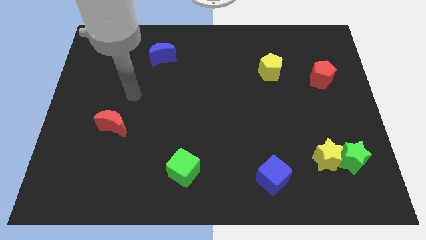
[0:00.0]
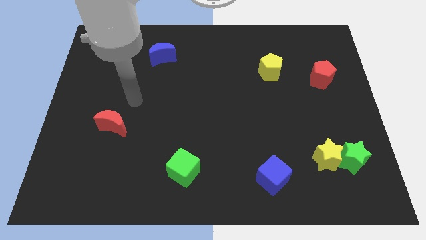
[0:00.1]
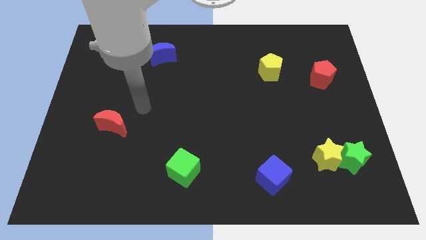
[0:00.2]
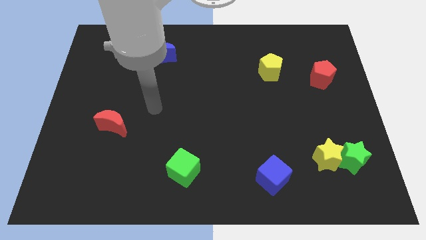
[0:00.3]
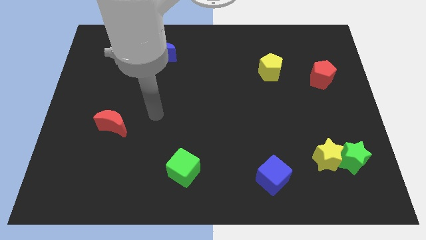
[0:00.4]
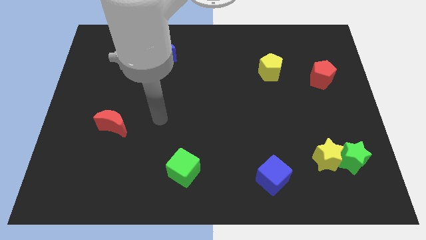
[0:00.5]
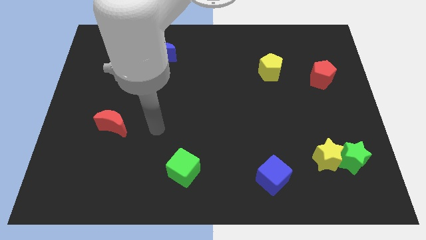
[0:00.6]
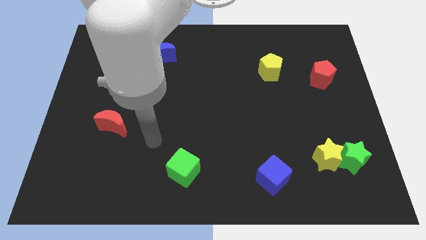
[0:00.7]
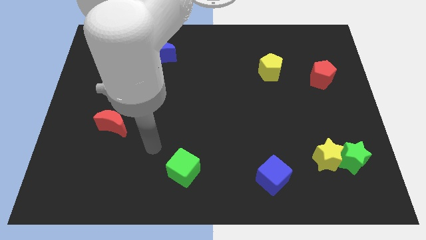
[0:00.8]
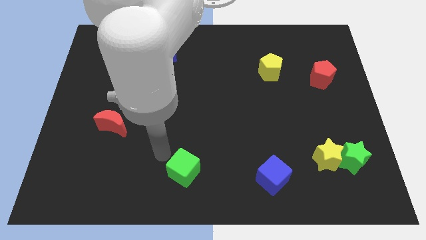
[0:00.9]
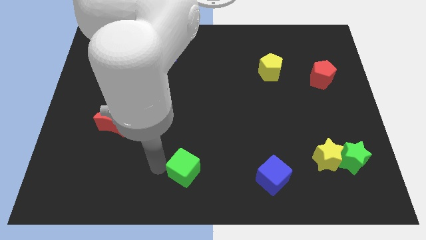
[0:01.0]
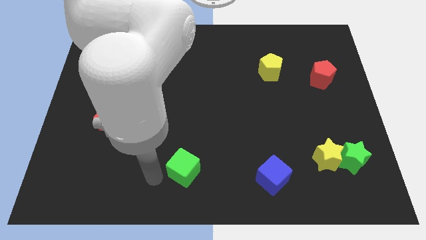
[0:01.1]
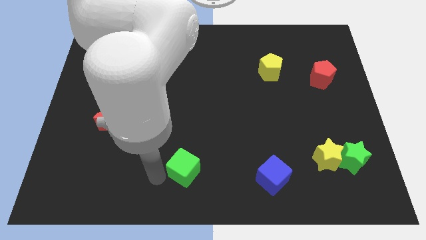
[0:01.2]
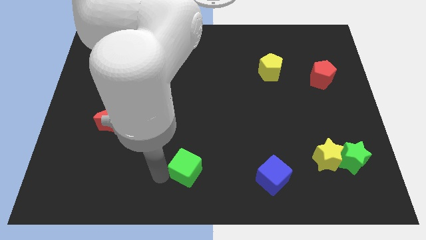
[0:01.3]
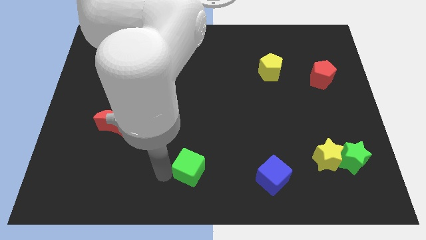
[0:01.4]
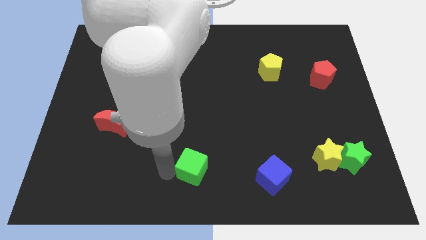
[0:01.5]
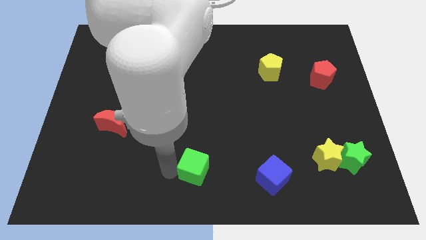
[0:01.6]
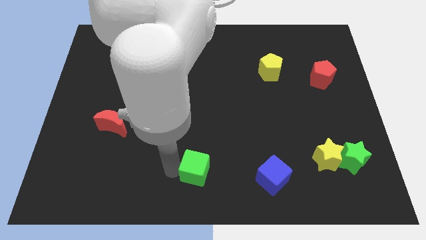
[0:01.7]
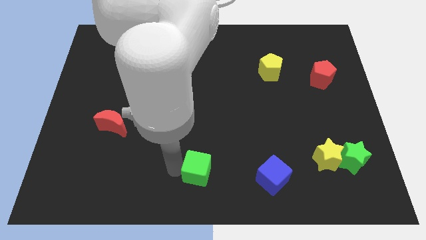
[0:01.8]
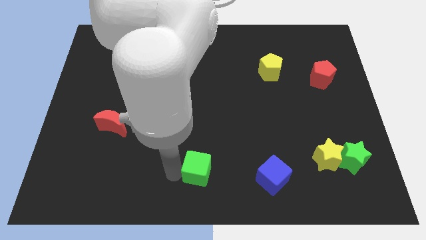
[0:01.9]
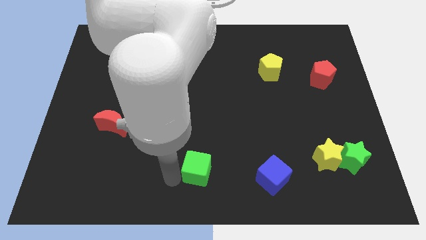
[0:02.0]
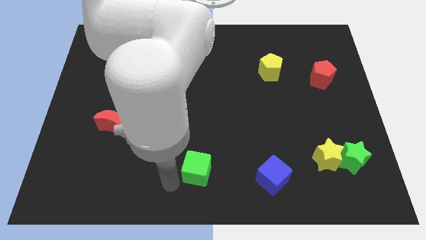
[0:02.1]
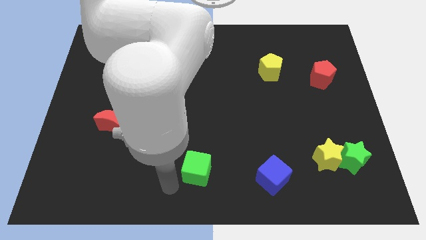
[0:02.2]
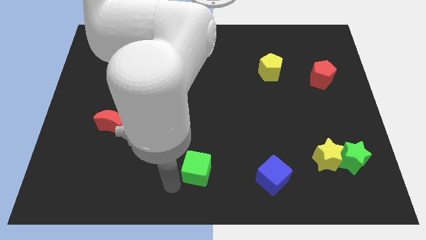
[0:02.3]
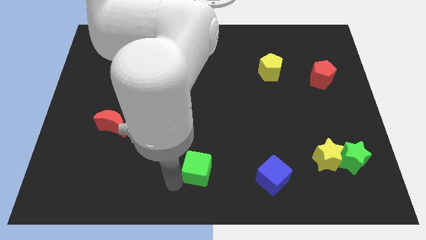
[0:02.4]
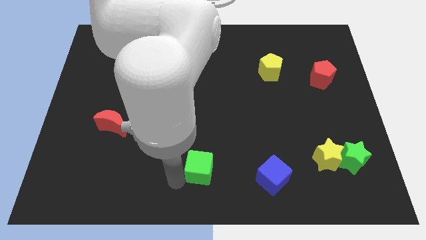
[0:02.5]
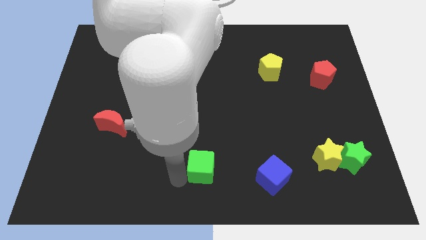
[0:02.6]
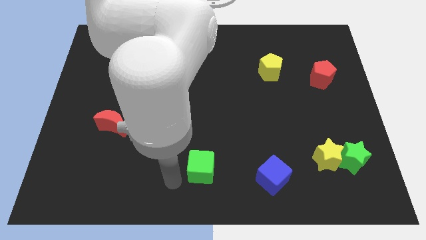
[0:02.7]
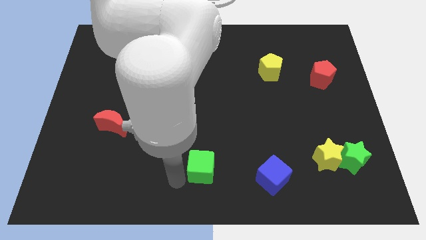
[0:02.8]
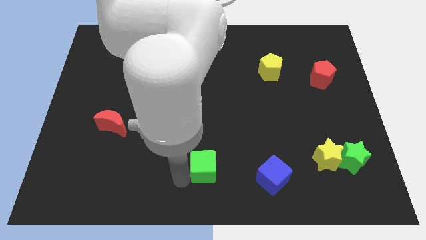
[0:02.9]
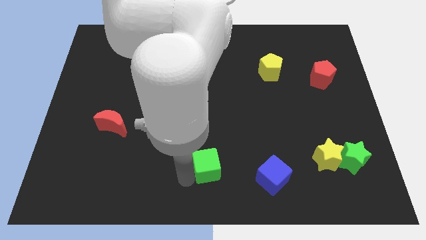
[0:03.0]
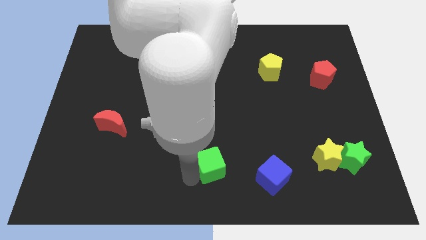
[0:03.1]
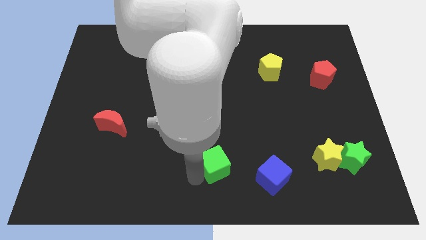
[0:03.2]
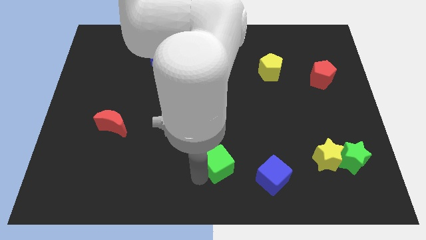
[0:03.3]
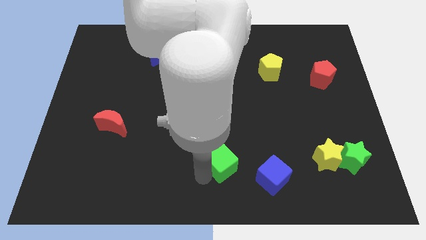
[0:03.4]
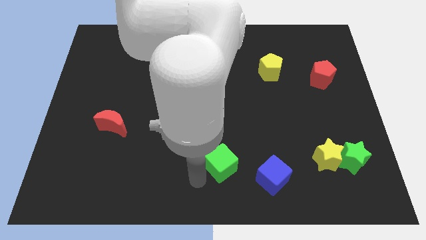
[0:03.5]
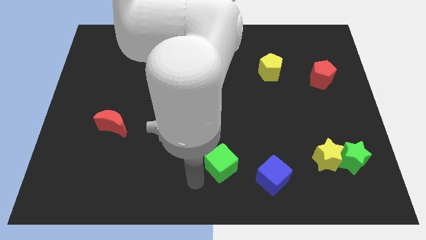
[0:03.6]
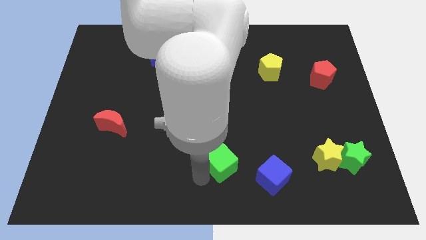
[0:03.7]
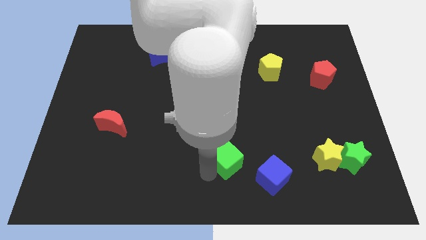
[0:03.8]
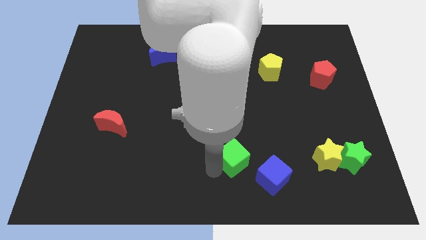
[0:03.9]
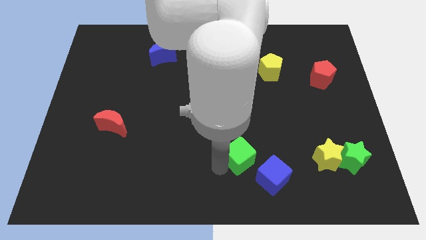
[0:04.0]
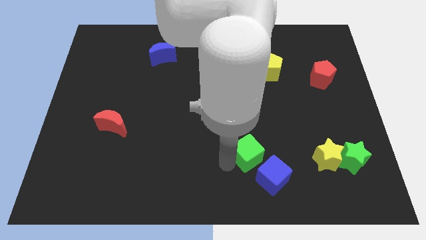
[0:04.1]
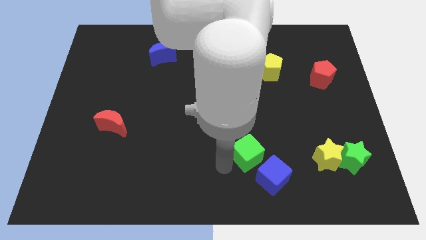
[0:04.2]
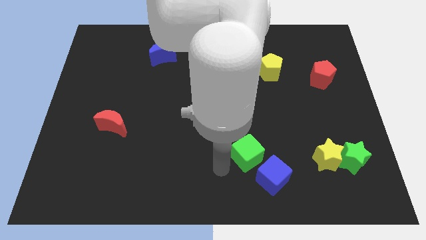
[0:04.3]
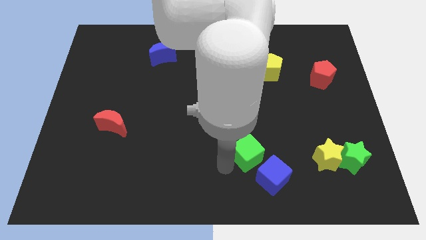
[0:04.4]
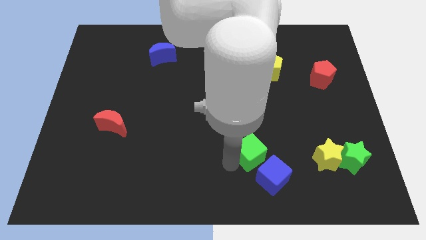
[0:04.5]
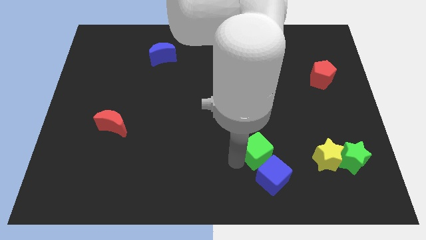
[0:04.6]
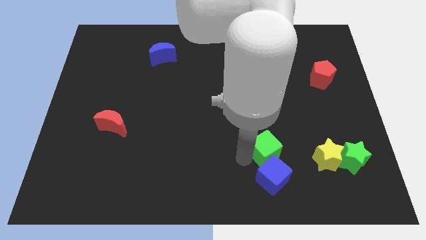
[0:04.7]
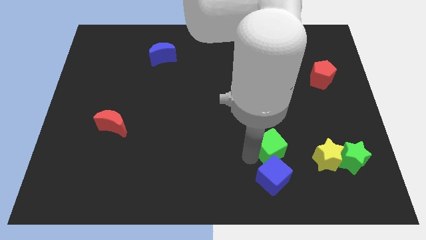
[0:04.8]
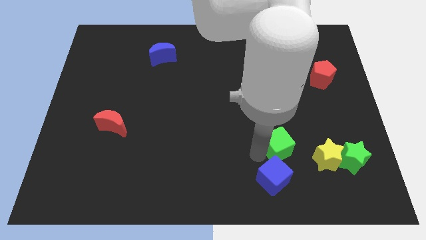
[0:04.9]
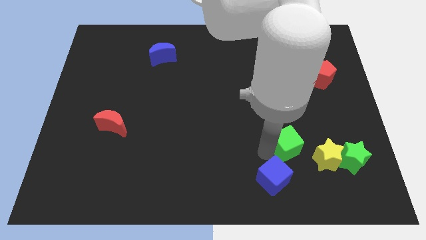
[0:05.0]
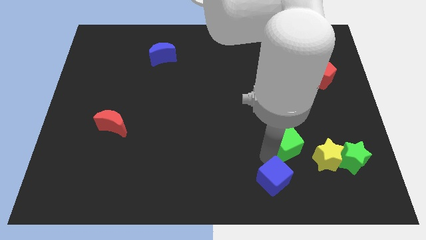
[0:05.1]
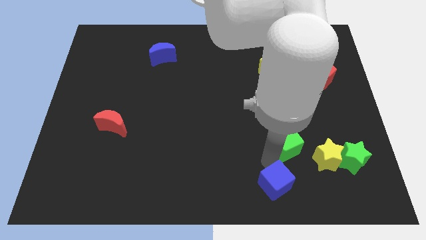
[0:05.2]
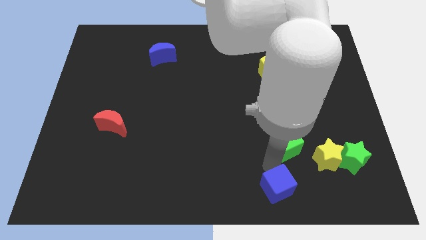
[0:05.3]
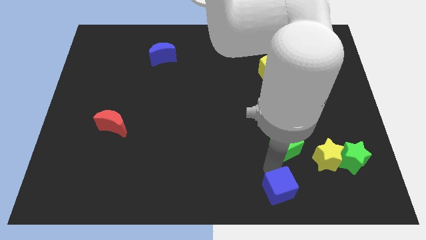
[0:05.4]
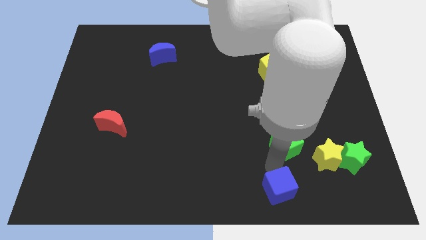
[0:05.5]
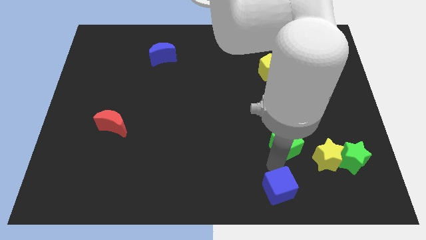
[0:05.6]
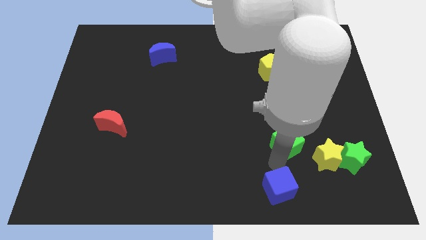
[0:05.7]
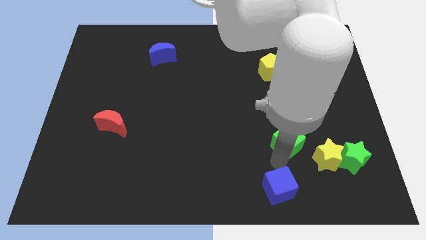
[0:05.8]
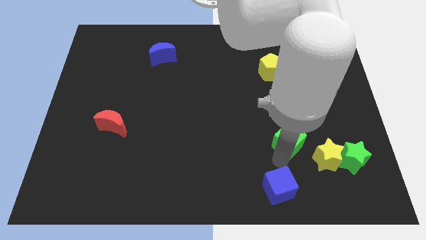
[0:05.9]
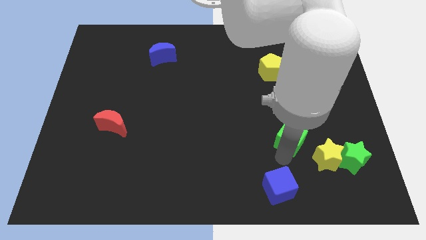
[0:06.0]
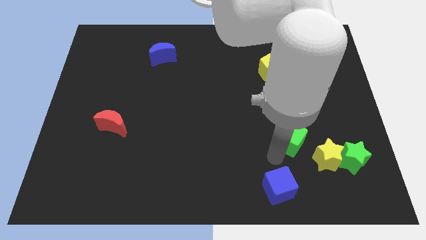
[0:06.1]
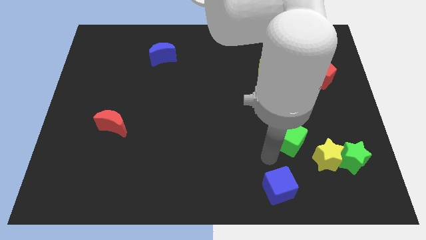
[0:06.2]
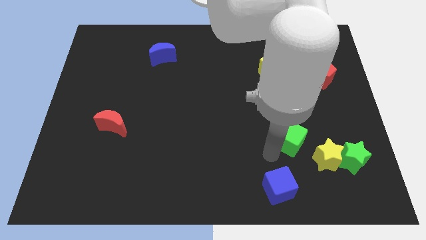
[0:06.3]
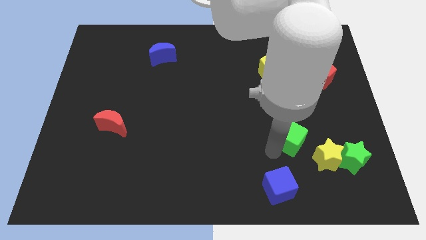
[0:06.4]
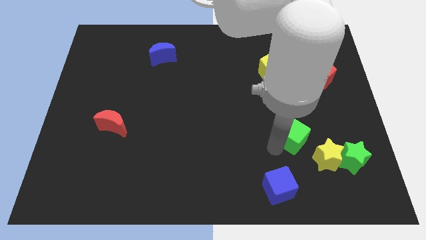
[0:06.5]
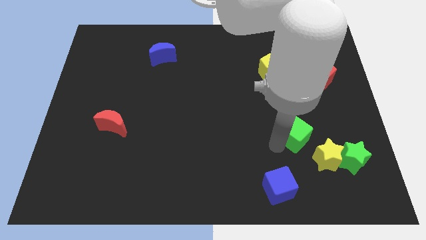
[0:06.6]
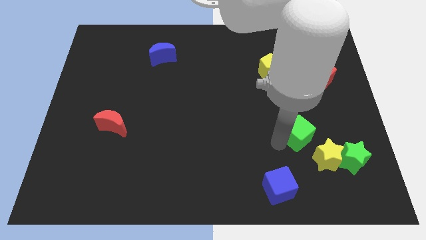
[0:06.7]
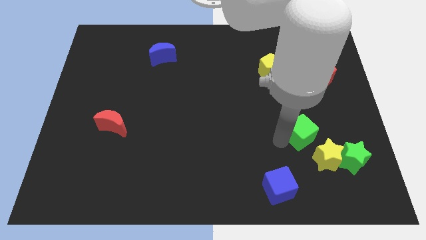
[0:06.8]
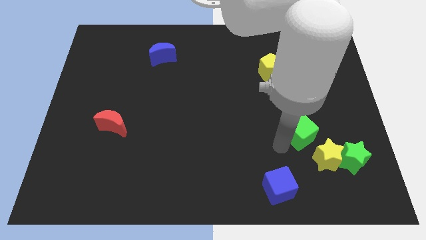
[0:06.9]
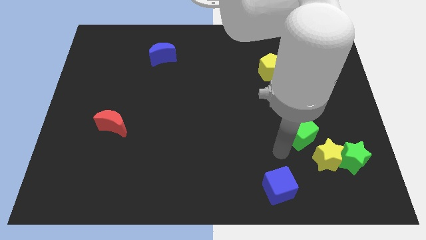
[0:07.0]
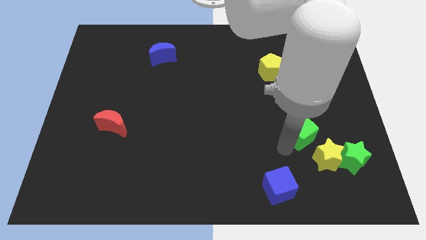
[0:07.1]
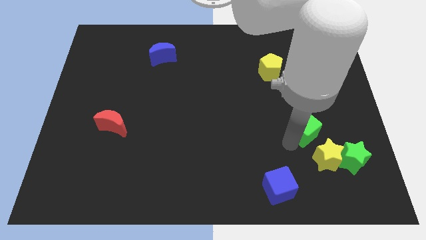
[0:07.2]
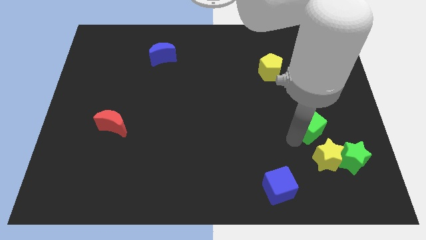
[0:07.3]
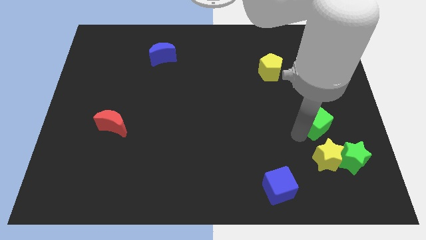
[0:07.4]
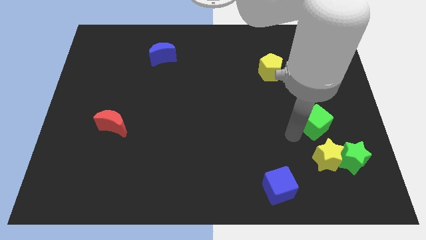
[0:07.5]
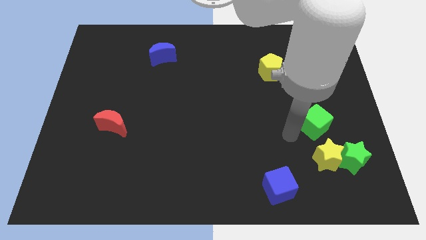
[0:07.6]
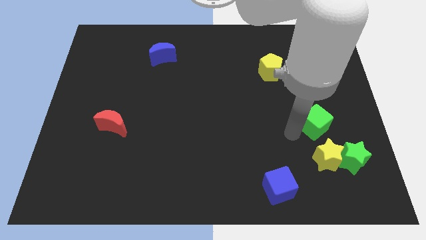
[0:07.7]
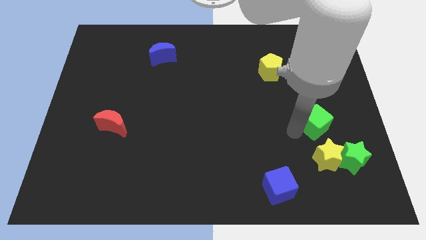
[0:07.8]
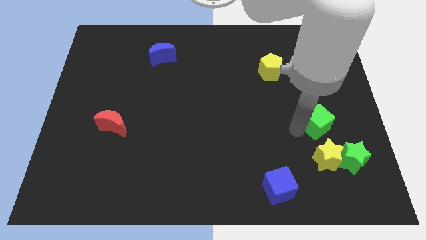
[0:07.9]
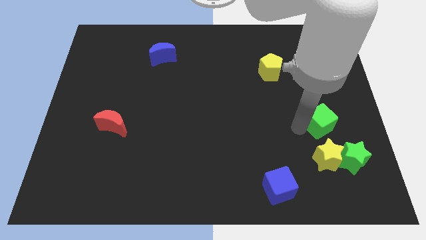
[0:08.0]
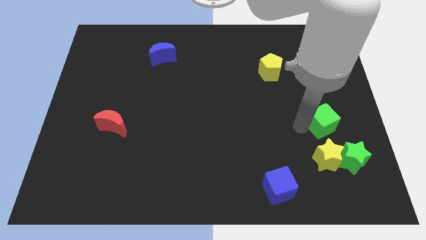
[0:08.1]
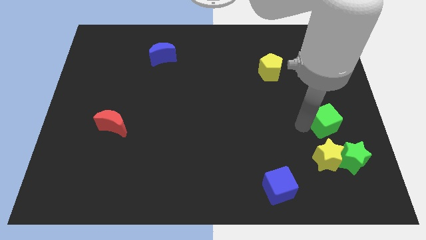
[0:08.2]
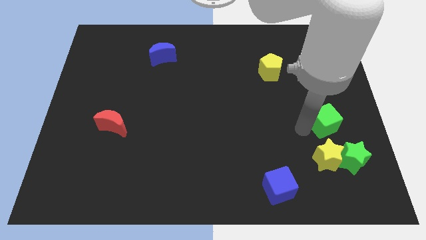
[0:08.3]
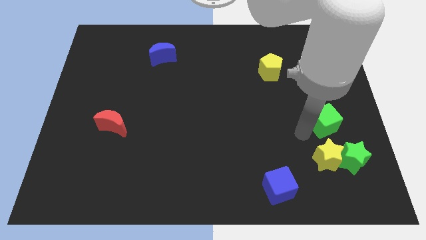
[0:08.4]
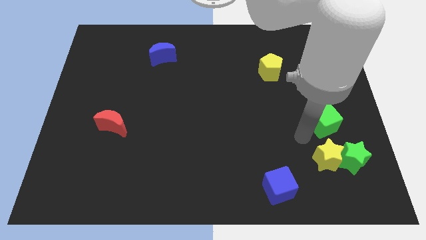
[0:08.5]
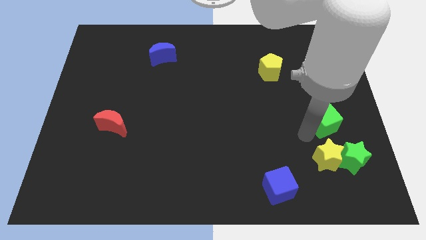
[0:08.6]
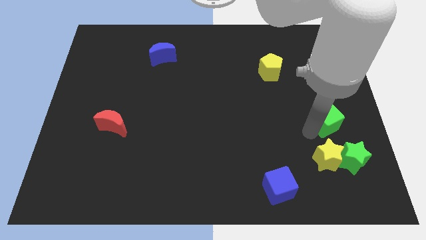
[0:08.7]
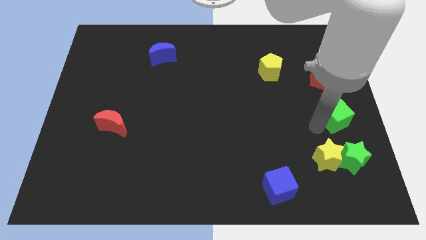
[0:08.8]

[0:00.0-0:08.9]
slide the green cube to the right side
